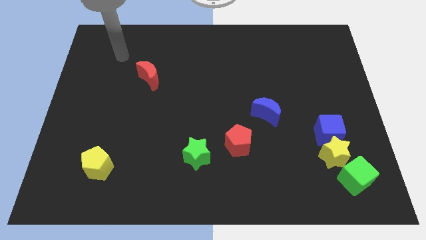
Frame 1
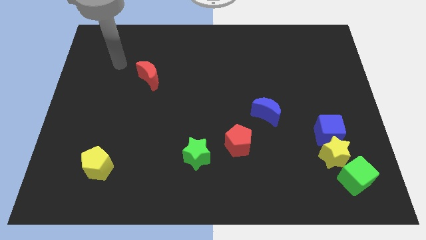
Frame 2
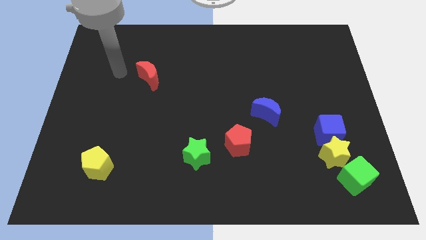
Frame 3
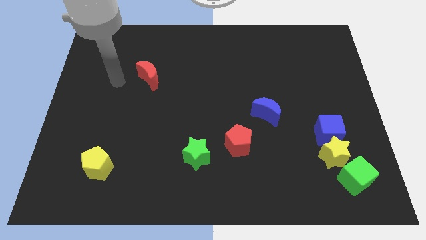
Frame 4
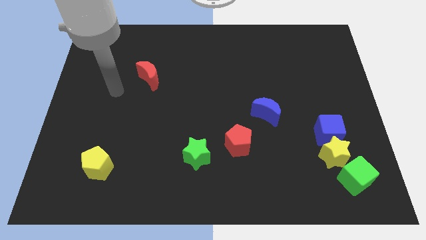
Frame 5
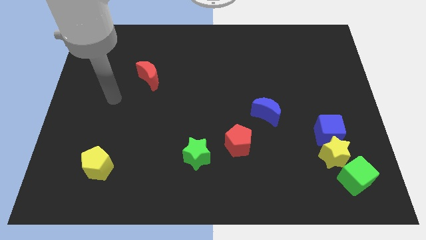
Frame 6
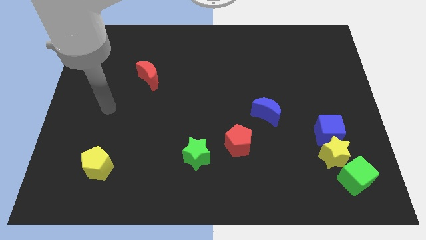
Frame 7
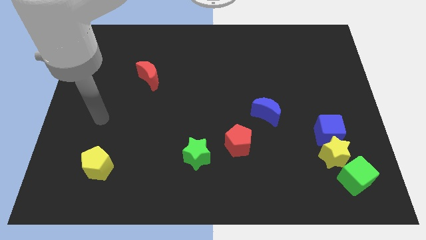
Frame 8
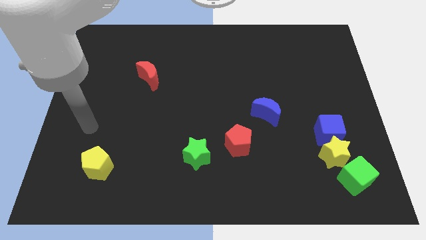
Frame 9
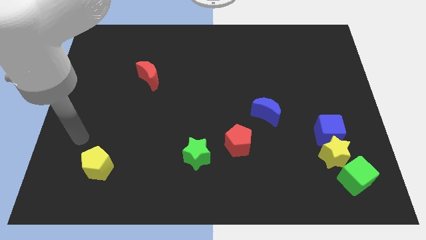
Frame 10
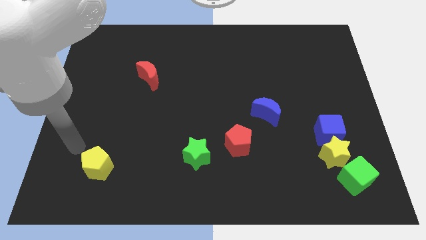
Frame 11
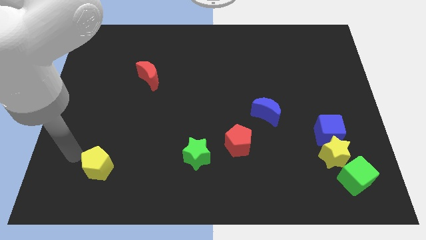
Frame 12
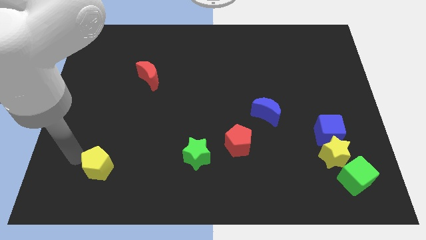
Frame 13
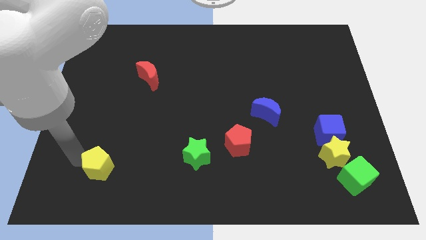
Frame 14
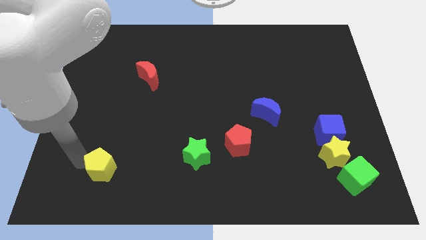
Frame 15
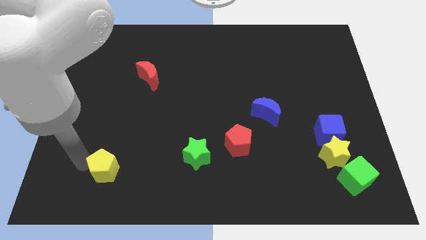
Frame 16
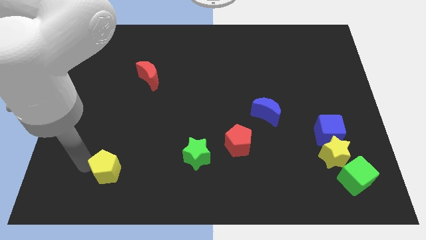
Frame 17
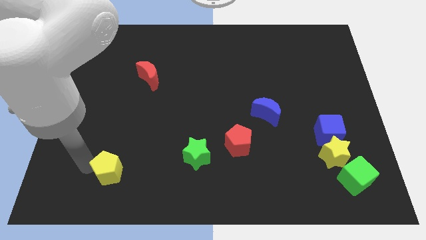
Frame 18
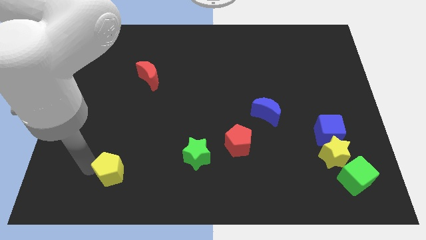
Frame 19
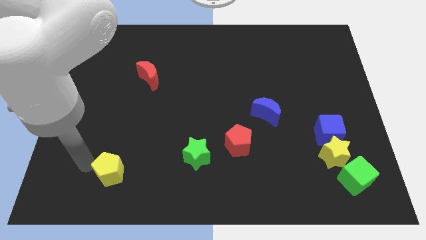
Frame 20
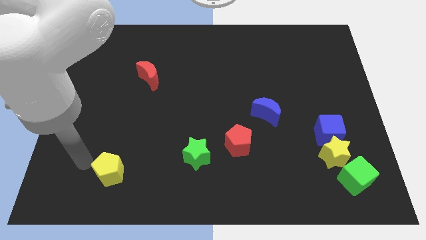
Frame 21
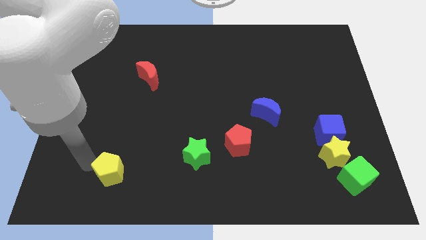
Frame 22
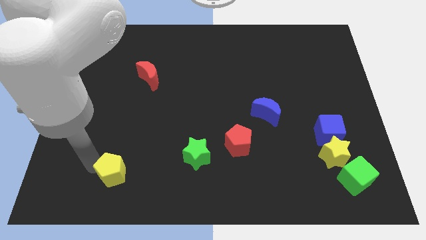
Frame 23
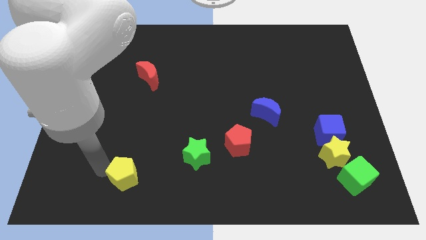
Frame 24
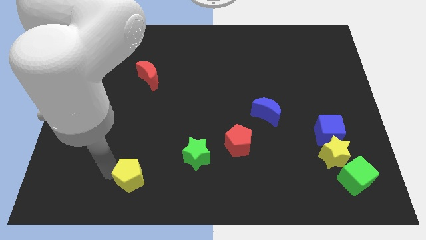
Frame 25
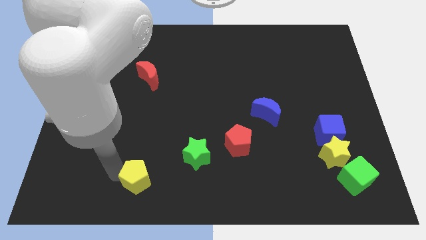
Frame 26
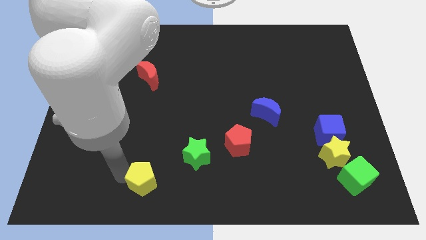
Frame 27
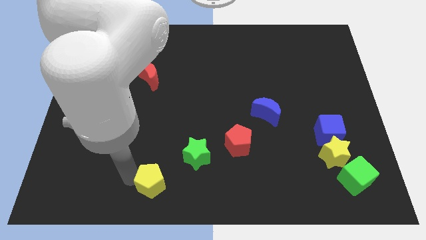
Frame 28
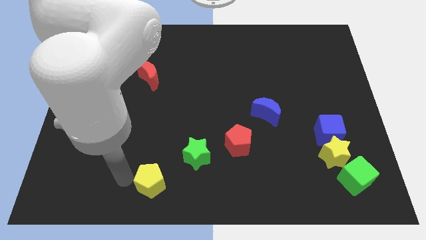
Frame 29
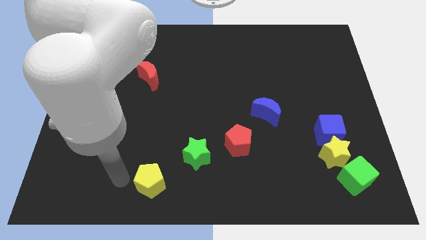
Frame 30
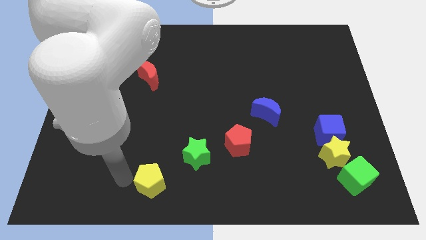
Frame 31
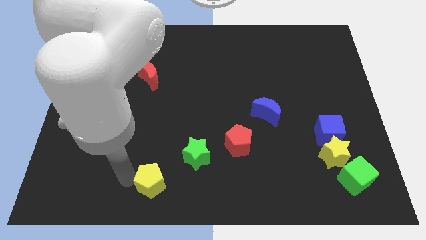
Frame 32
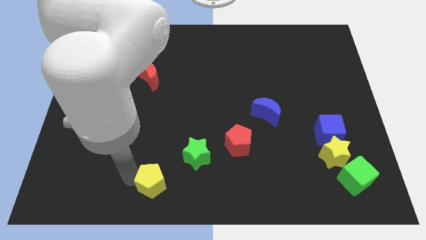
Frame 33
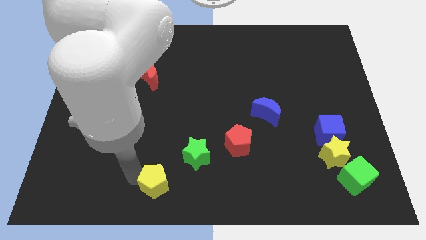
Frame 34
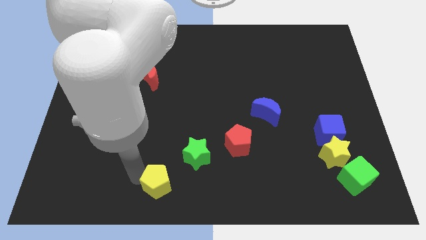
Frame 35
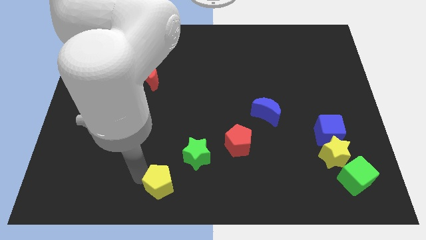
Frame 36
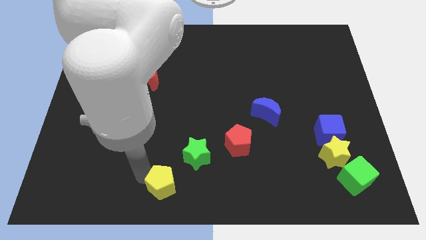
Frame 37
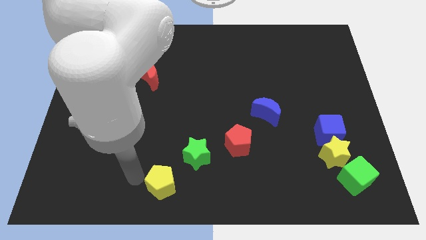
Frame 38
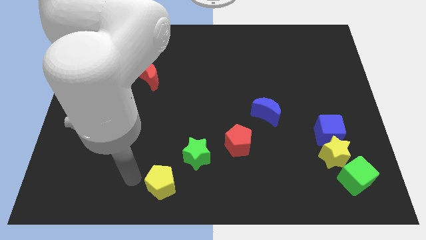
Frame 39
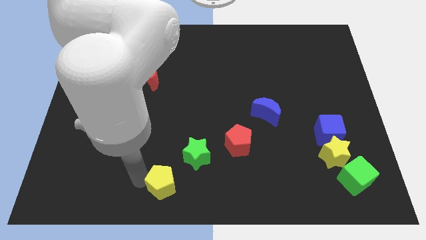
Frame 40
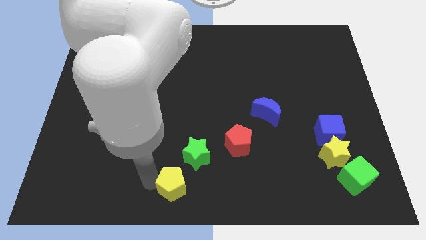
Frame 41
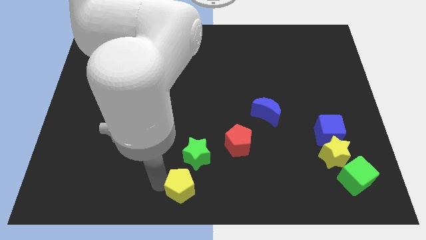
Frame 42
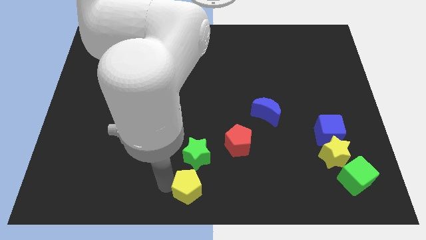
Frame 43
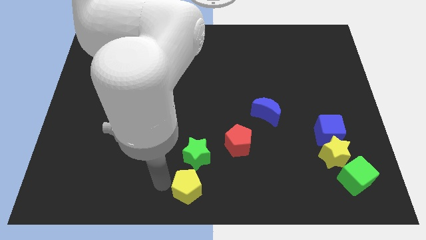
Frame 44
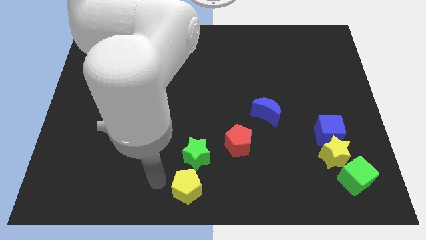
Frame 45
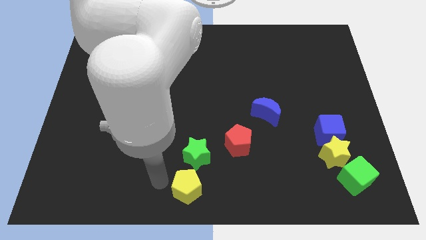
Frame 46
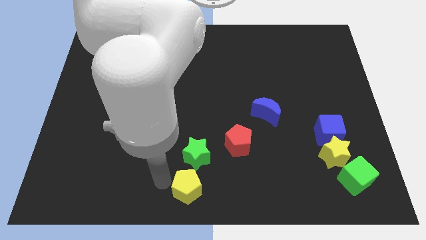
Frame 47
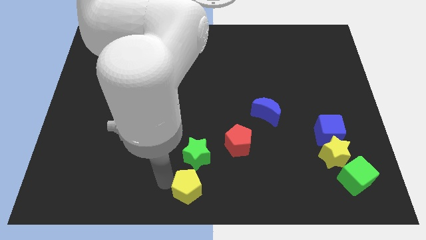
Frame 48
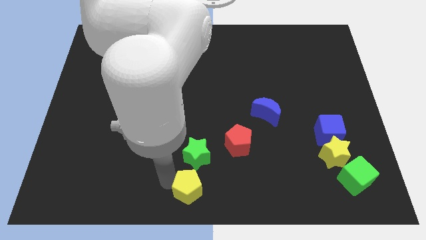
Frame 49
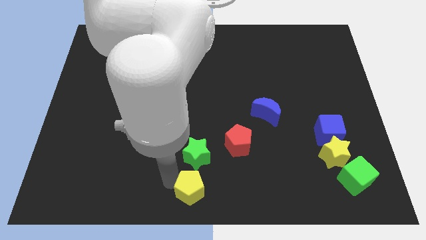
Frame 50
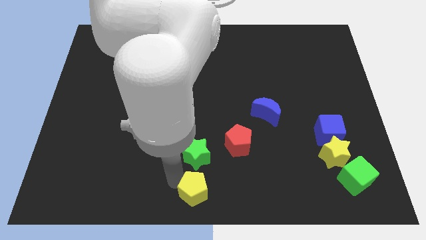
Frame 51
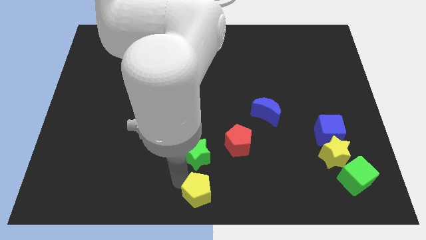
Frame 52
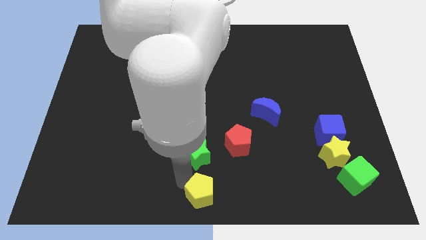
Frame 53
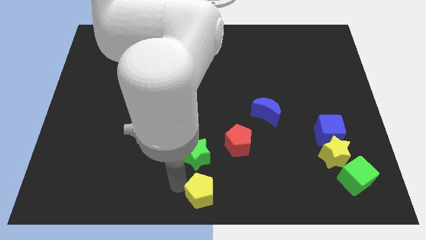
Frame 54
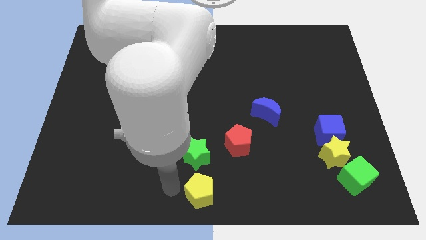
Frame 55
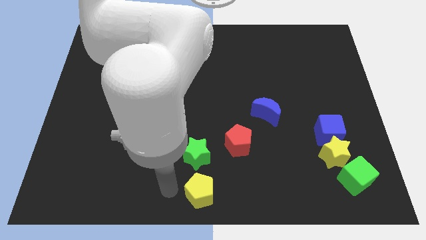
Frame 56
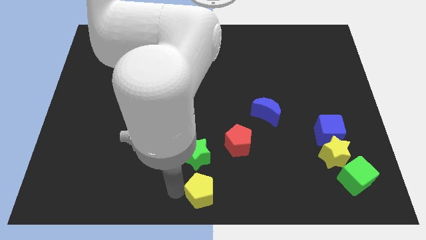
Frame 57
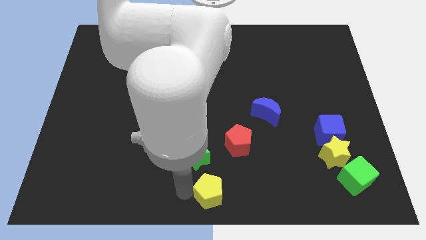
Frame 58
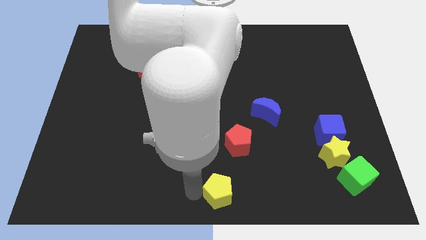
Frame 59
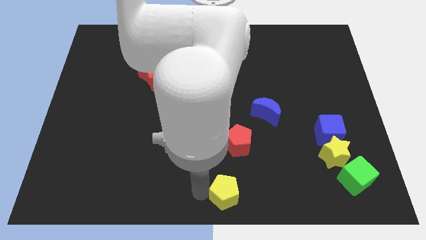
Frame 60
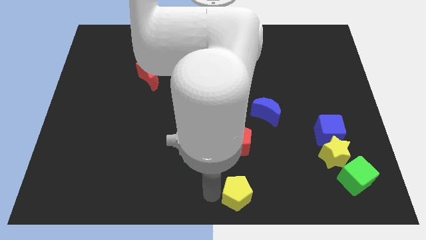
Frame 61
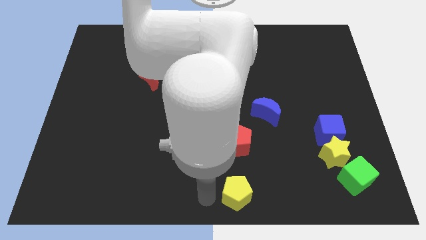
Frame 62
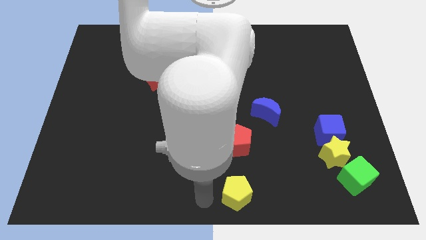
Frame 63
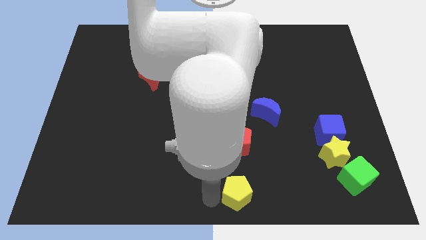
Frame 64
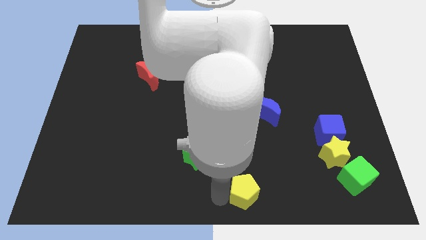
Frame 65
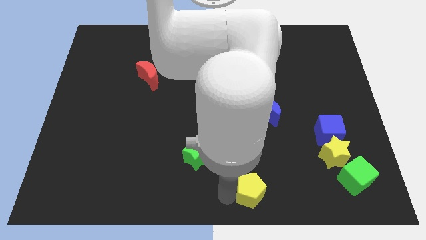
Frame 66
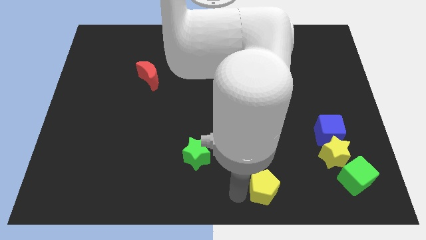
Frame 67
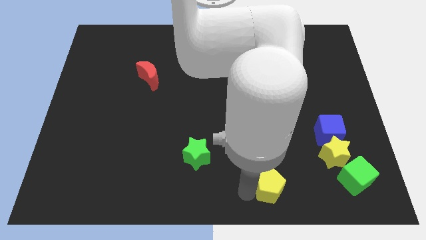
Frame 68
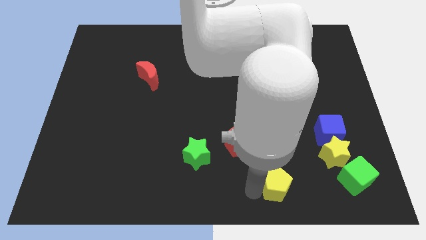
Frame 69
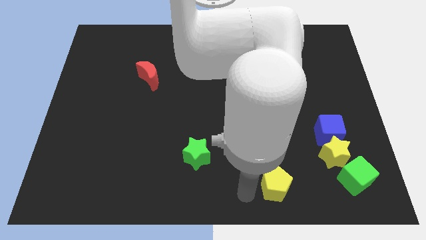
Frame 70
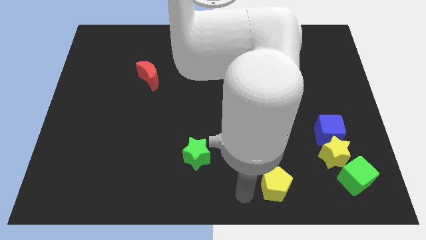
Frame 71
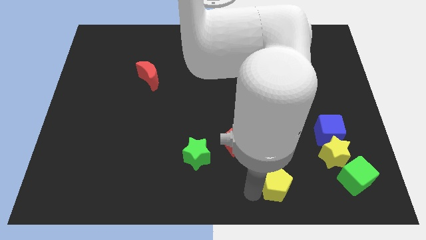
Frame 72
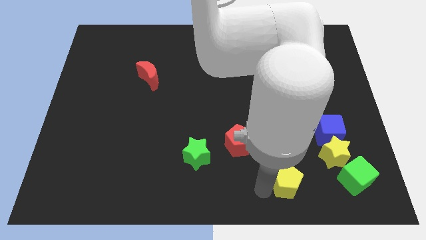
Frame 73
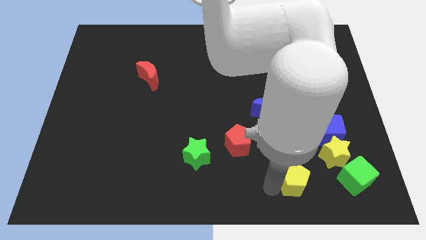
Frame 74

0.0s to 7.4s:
push the yellow pentagon diagonally down and to the left of the yellow star

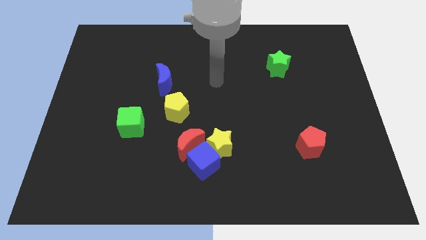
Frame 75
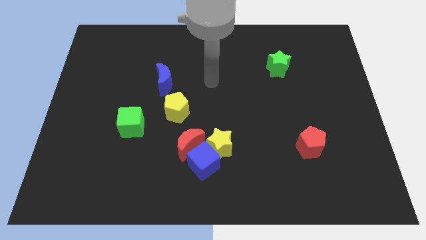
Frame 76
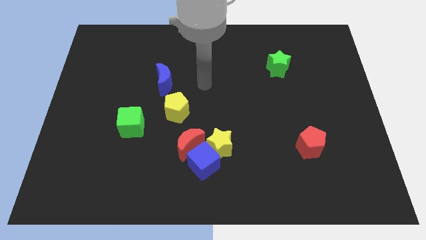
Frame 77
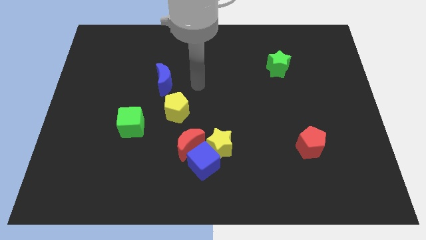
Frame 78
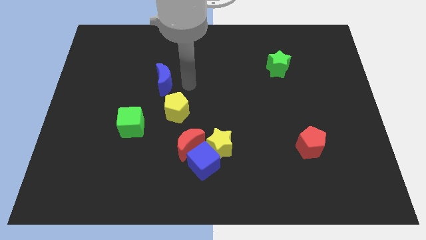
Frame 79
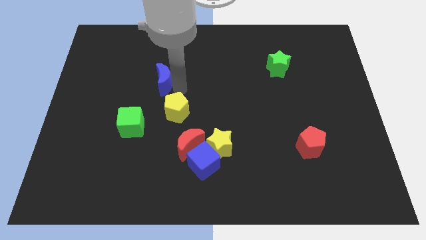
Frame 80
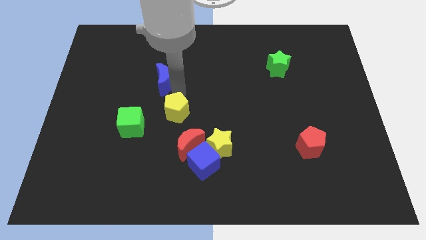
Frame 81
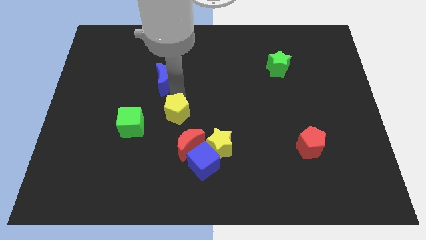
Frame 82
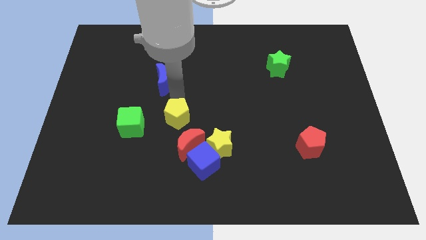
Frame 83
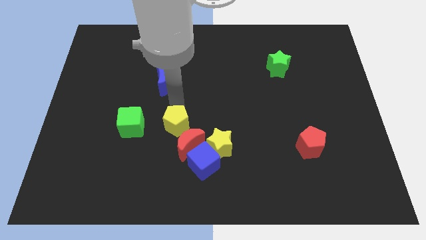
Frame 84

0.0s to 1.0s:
put the yellow pentagon to the top left side of the blue cube
